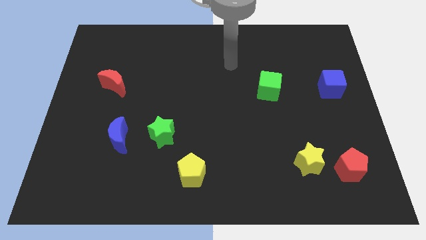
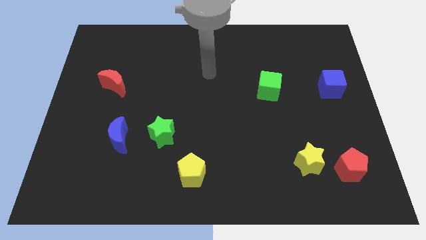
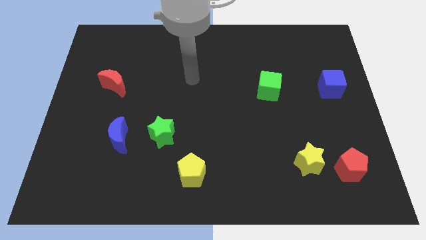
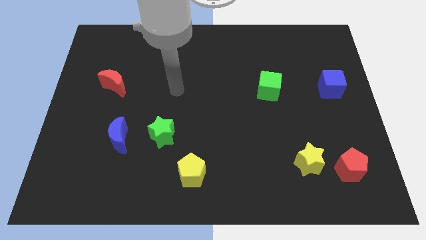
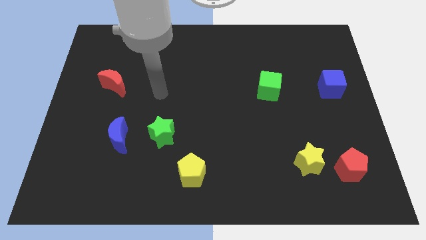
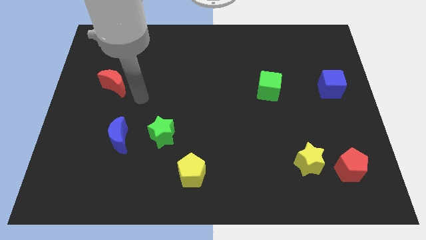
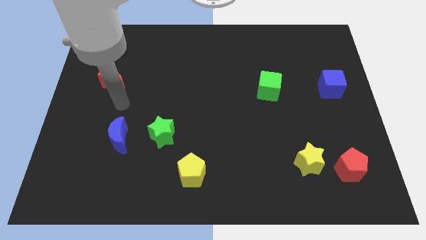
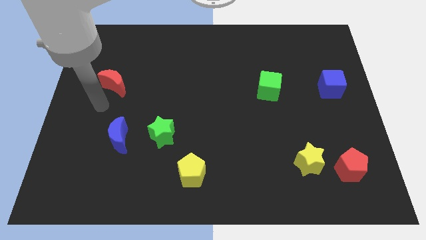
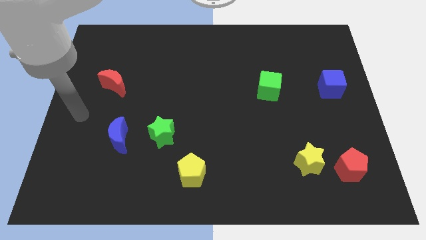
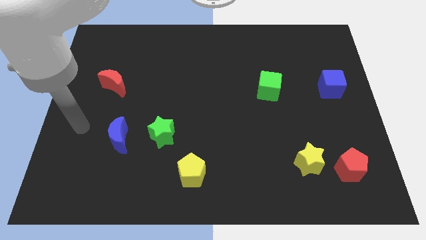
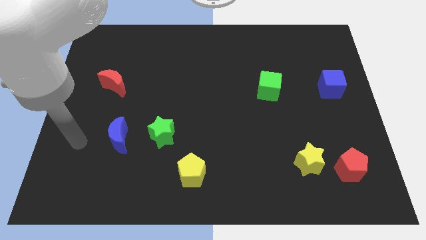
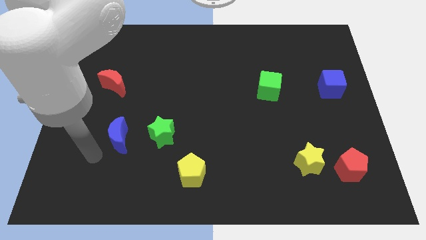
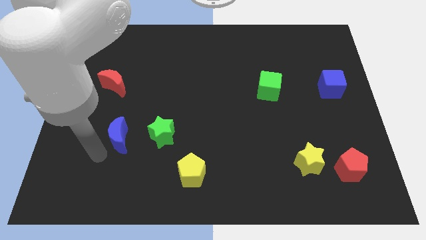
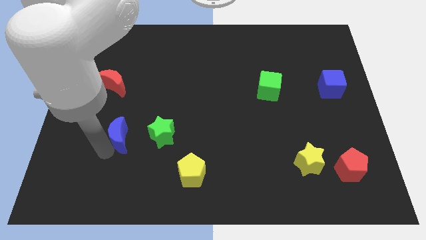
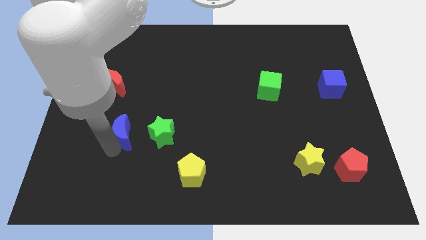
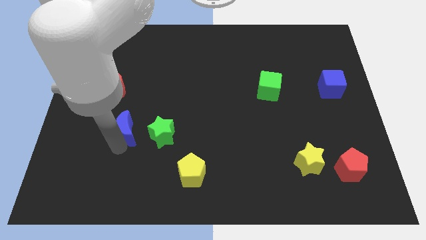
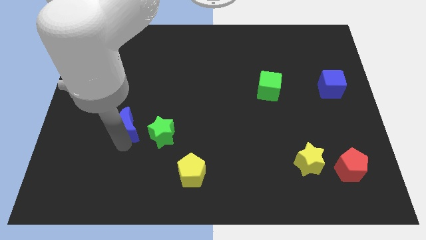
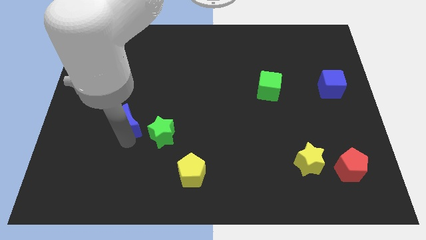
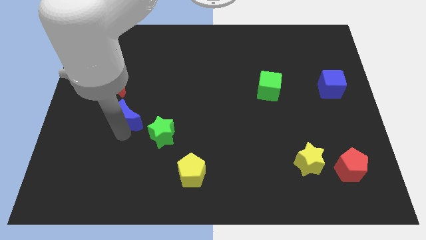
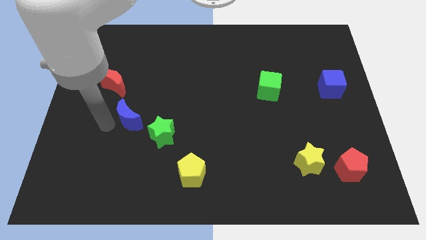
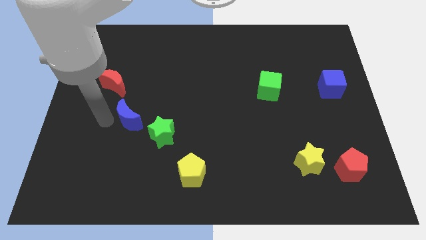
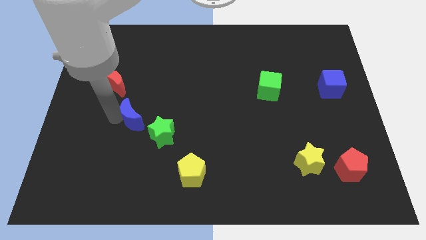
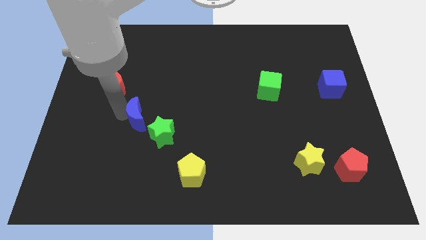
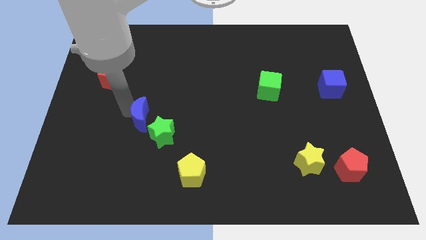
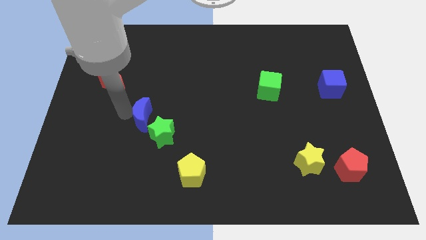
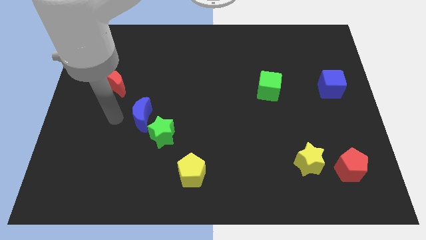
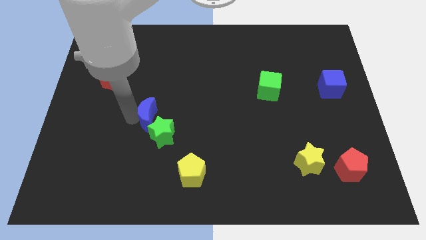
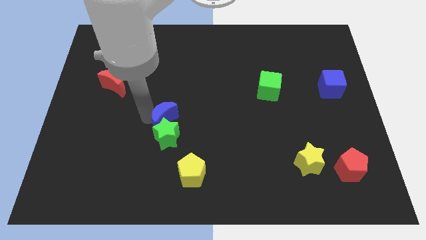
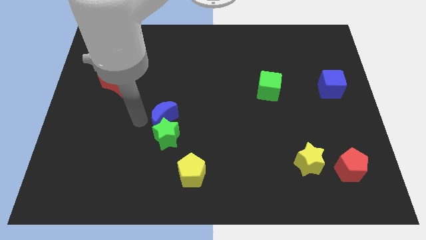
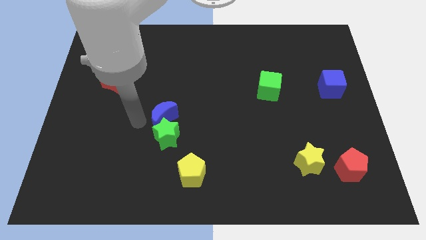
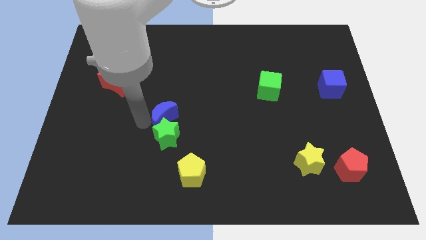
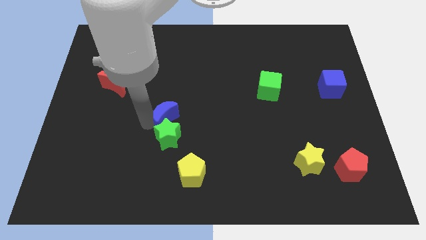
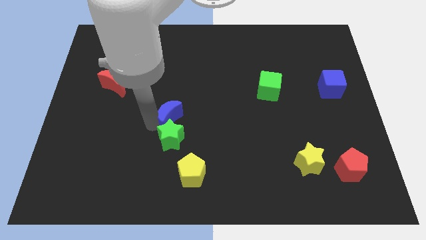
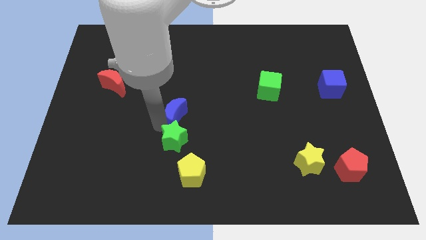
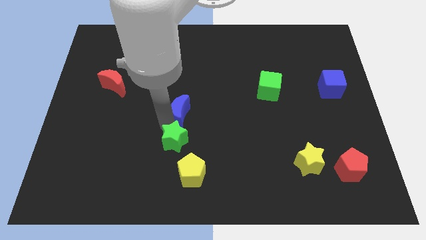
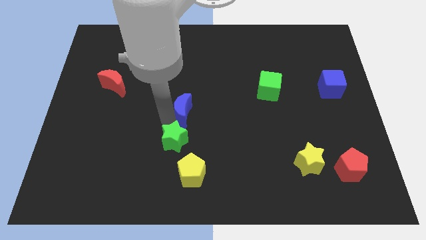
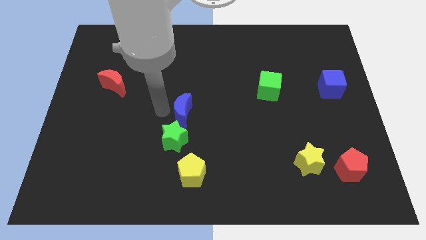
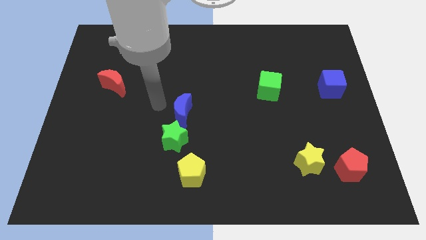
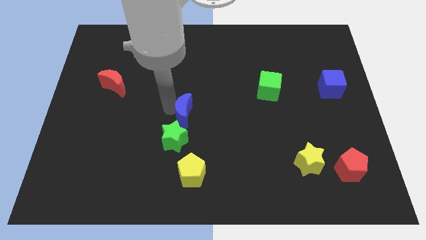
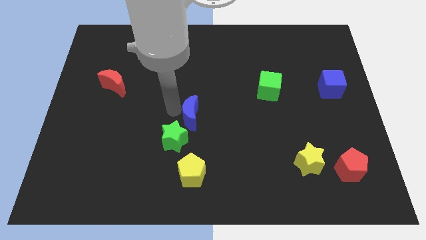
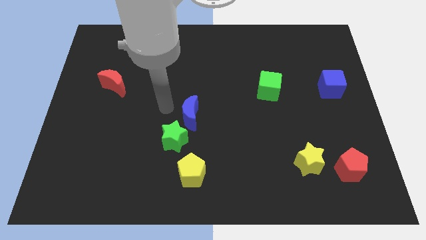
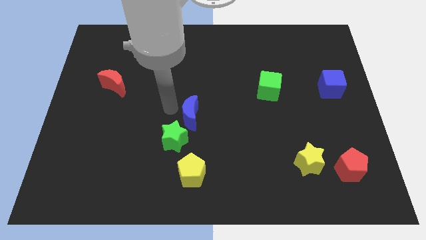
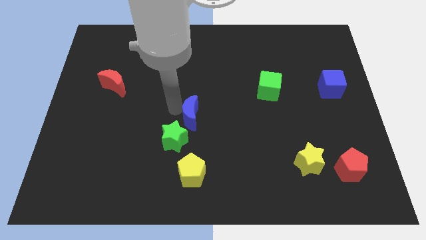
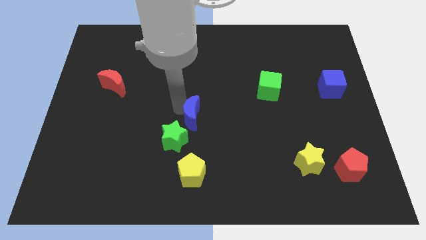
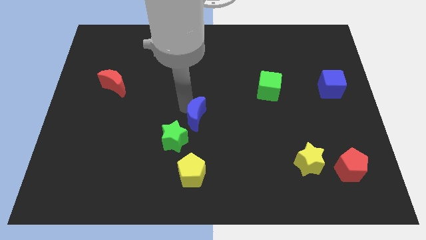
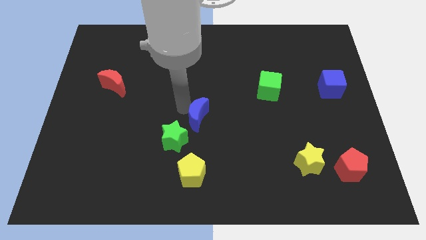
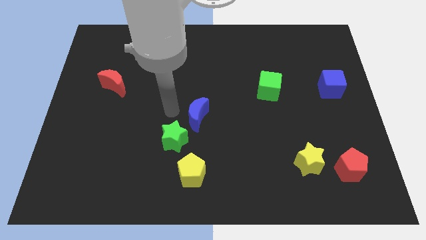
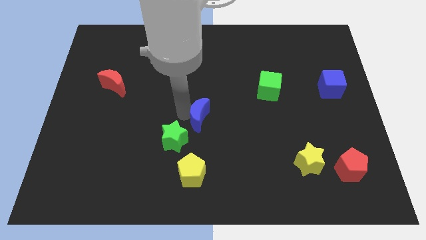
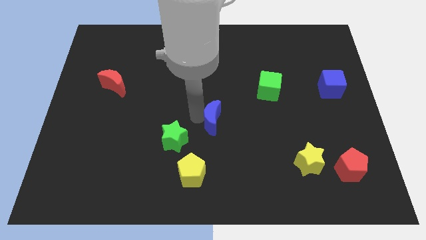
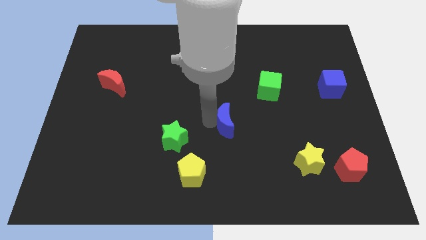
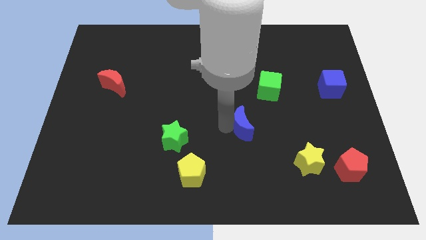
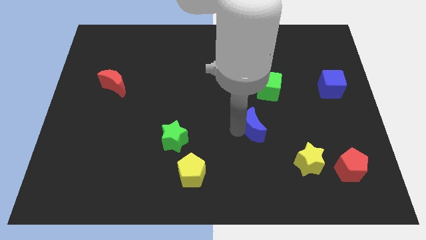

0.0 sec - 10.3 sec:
push the blue moon to the bottom side of the green cube

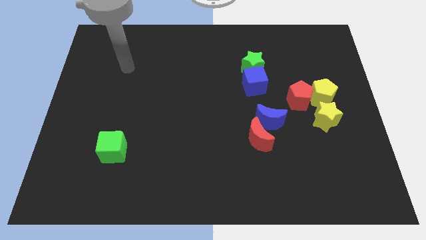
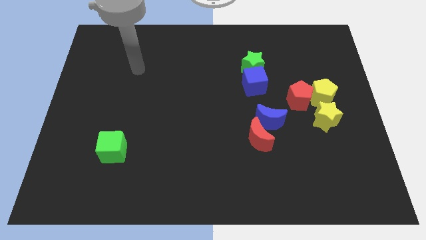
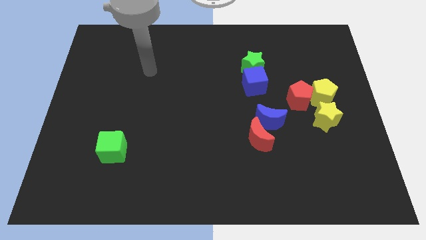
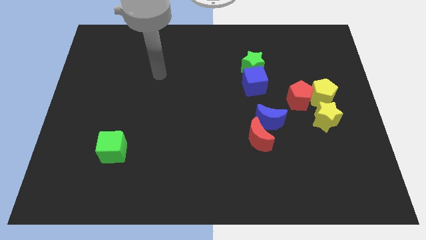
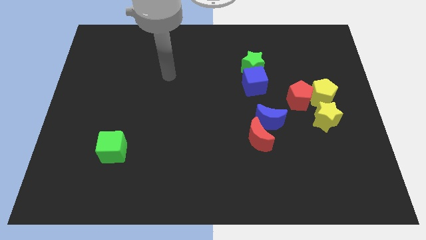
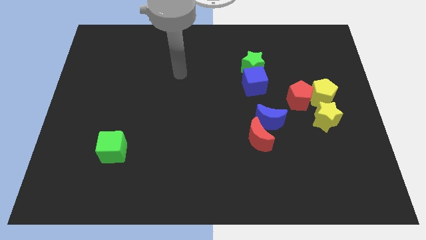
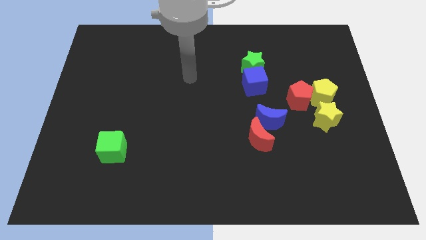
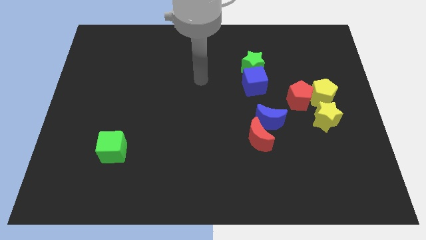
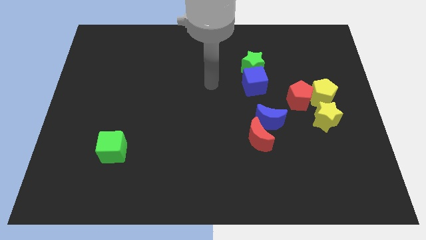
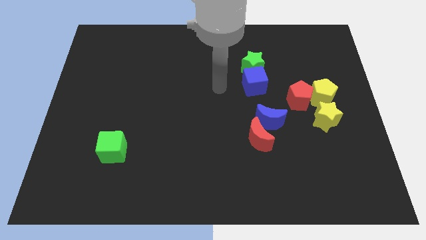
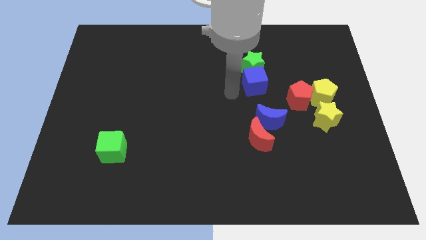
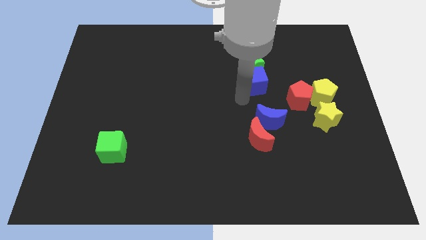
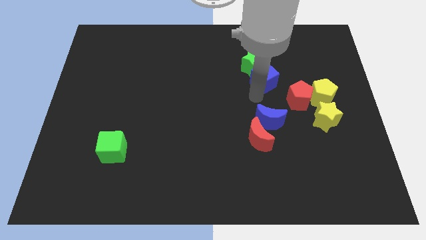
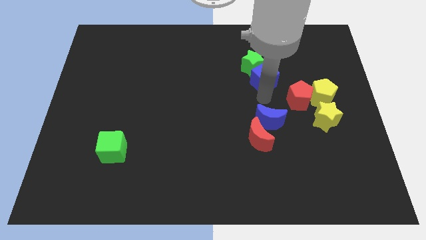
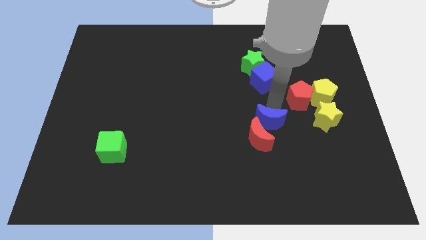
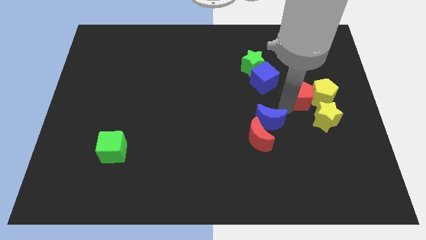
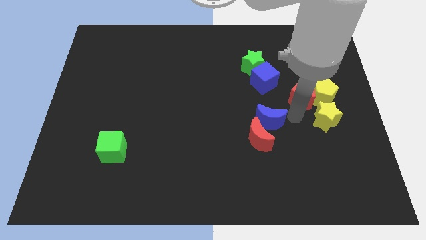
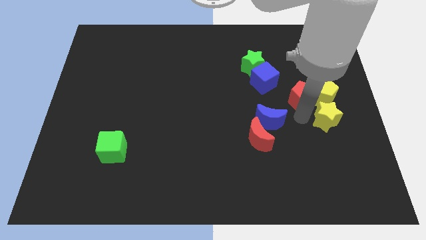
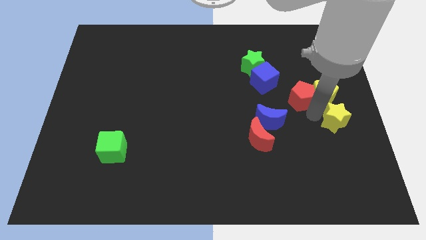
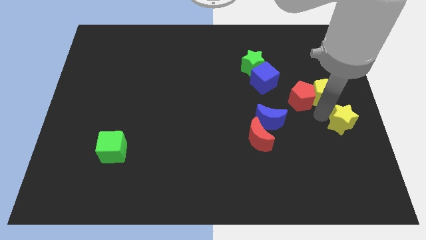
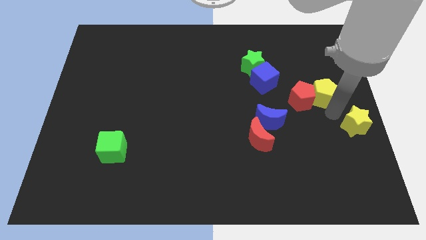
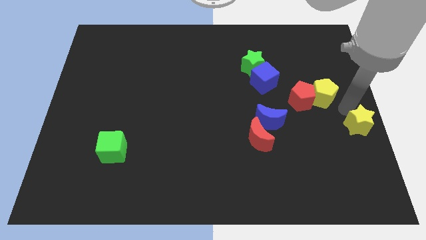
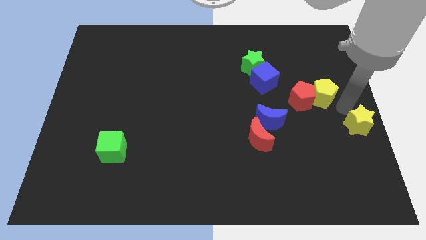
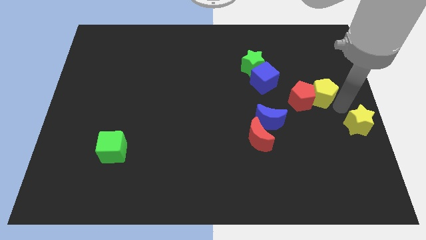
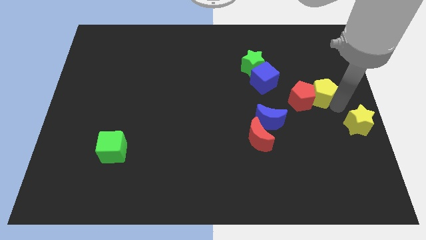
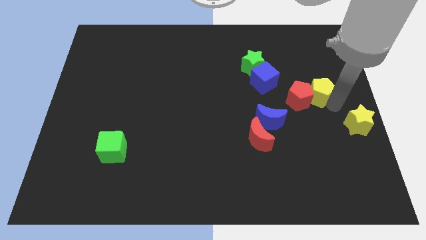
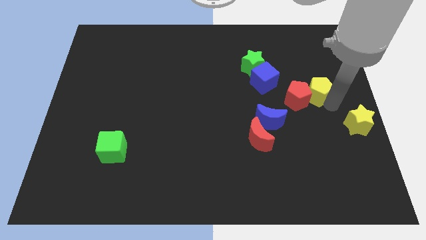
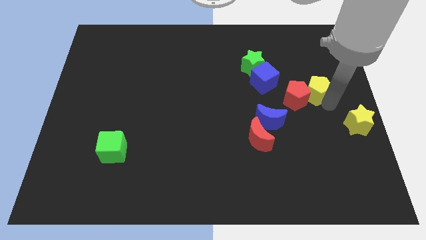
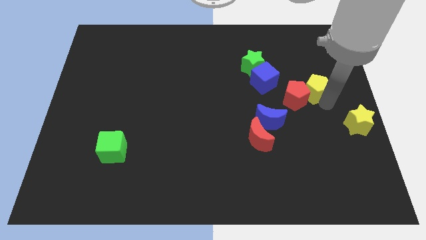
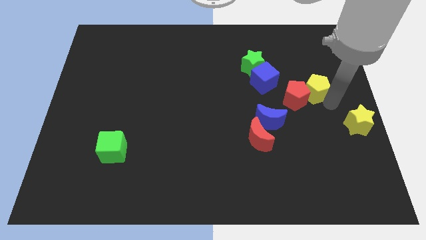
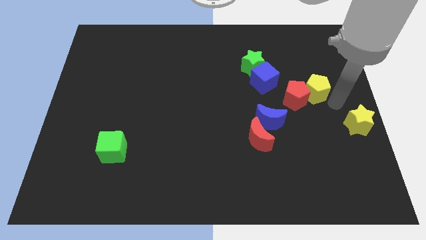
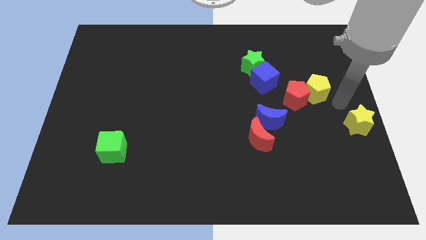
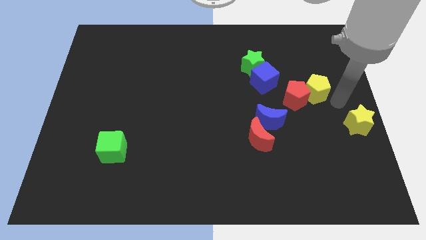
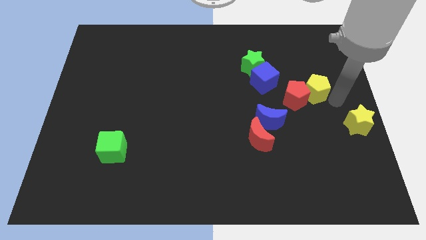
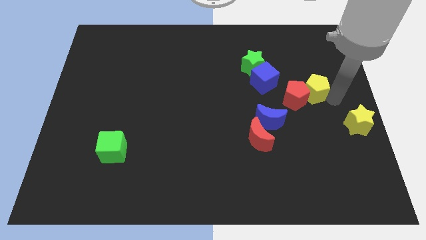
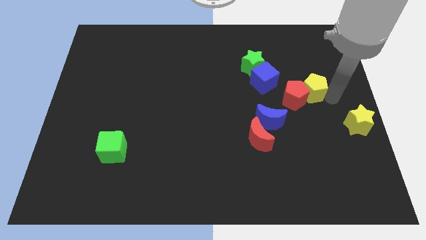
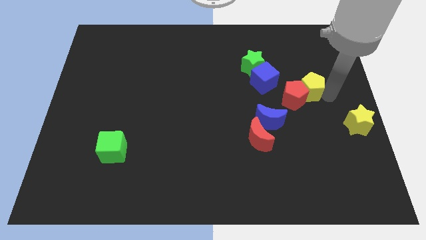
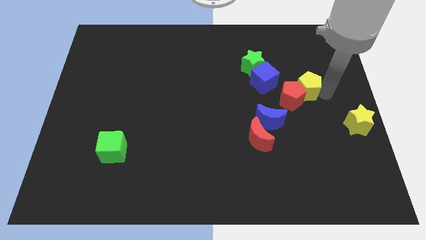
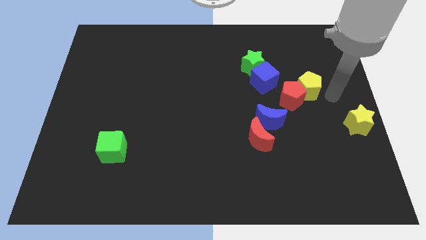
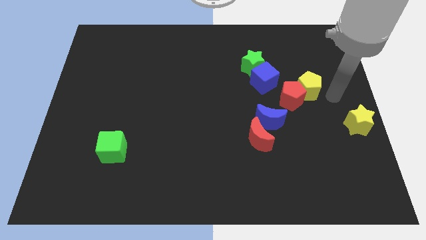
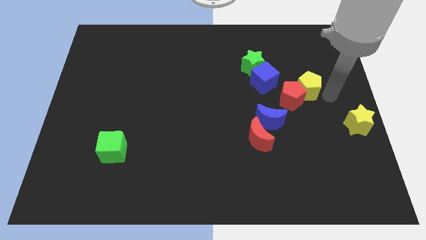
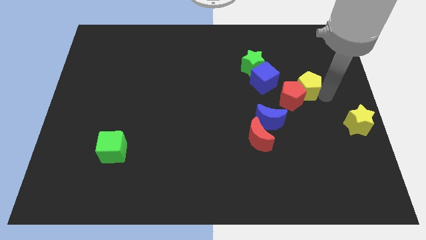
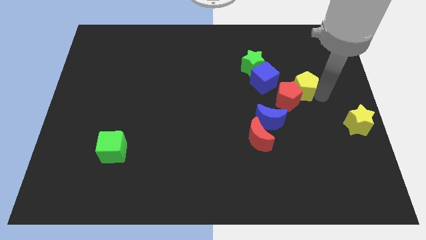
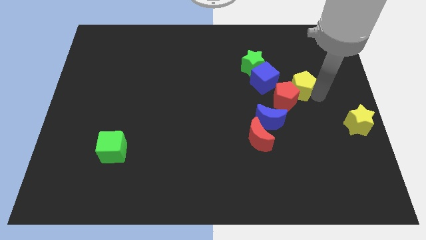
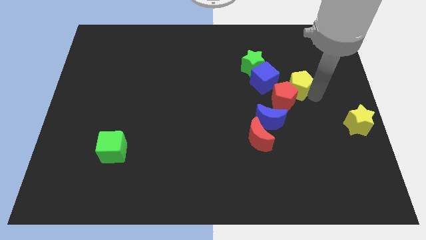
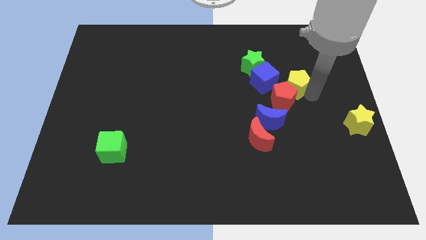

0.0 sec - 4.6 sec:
slide the yellow pentagon to the bottom right of the green star
